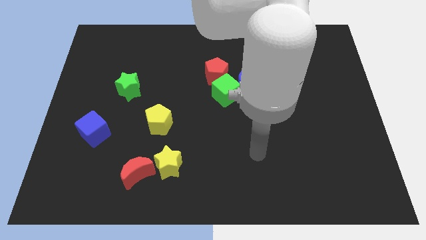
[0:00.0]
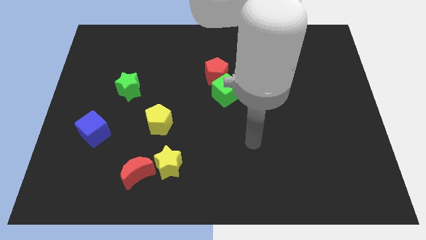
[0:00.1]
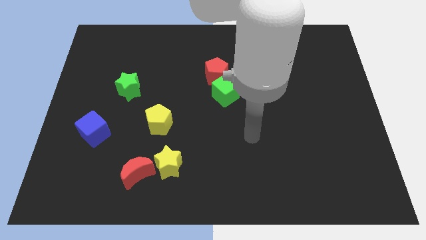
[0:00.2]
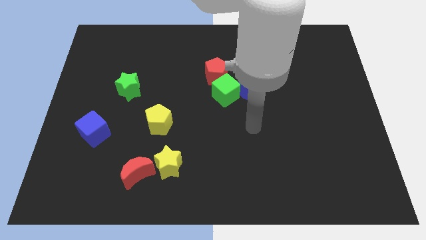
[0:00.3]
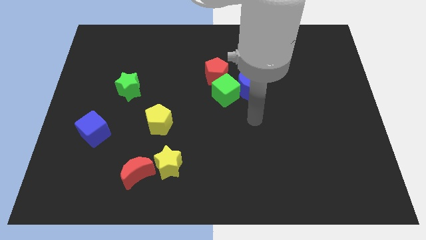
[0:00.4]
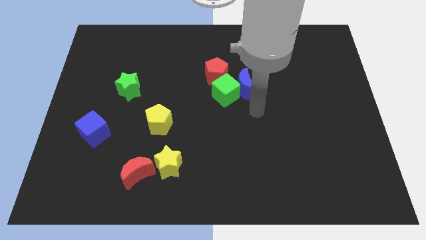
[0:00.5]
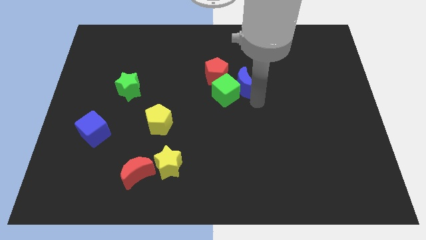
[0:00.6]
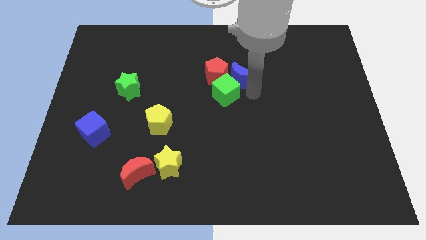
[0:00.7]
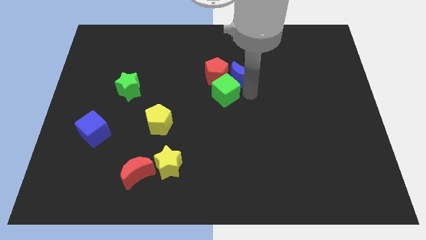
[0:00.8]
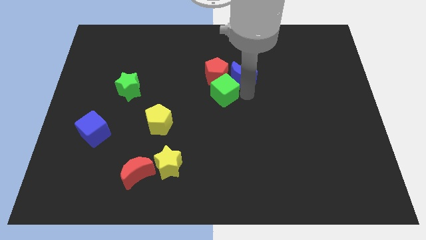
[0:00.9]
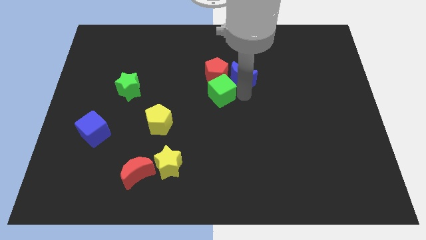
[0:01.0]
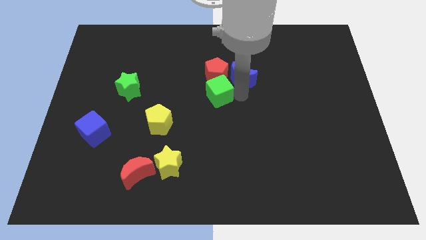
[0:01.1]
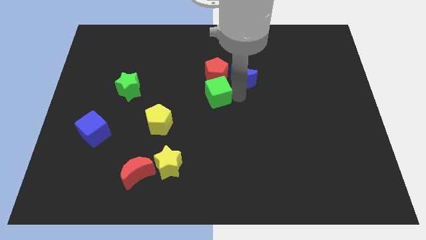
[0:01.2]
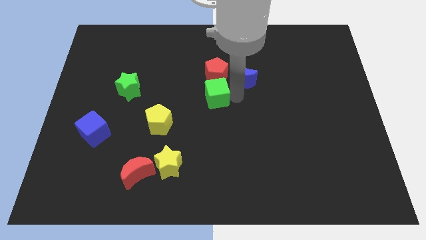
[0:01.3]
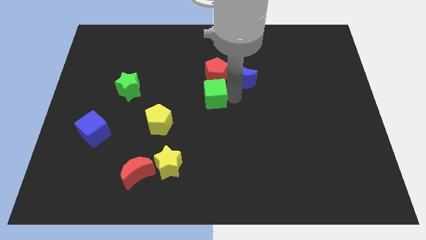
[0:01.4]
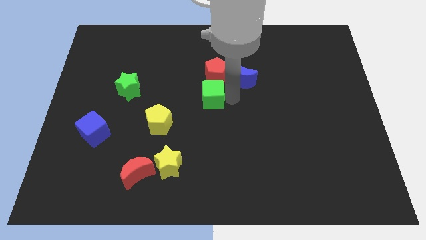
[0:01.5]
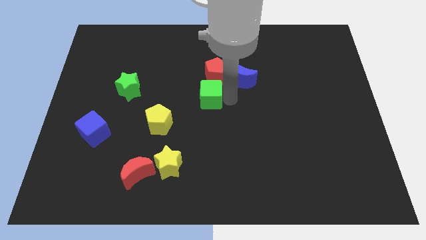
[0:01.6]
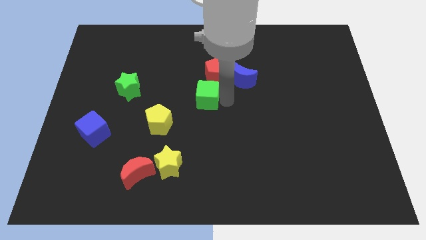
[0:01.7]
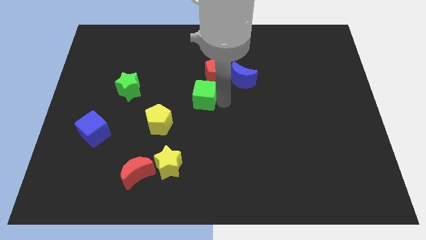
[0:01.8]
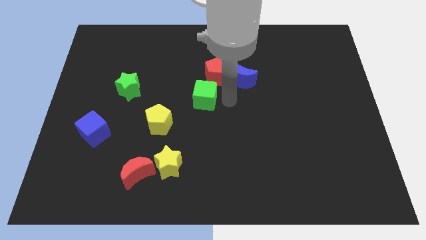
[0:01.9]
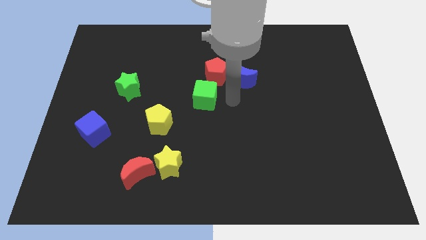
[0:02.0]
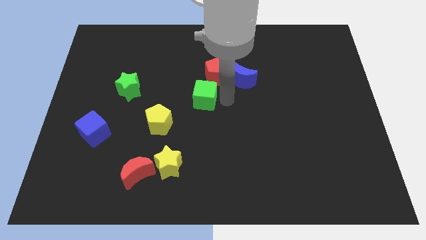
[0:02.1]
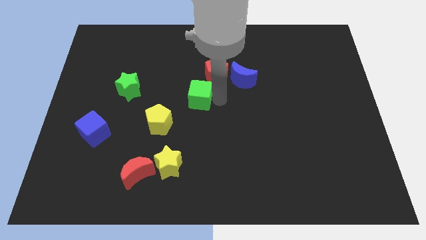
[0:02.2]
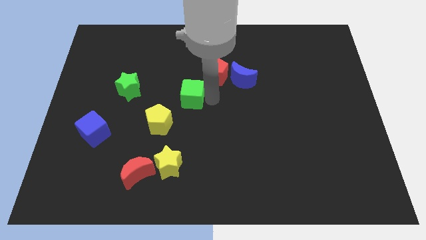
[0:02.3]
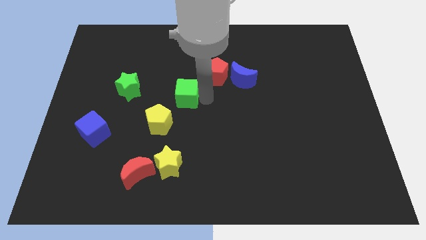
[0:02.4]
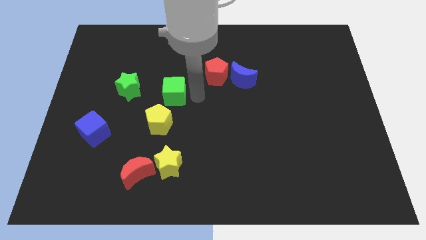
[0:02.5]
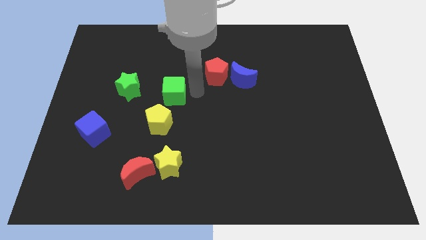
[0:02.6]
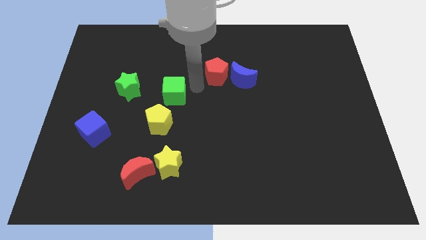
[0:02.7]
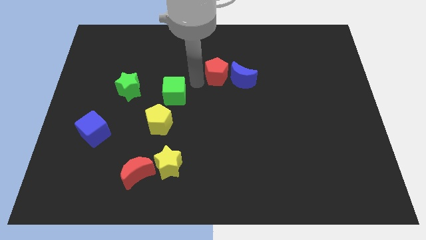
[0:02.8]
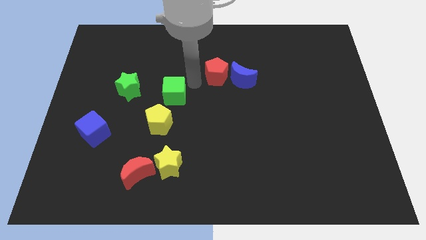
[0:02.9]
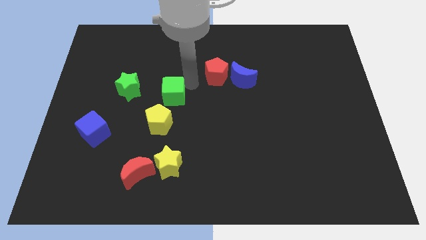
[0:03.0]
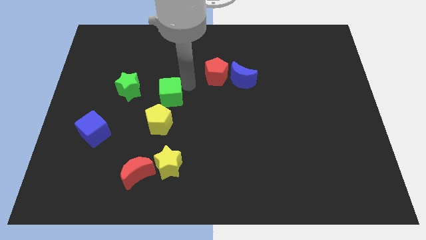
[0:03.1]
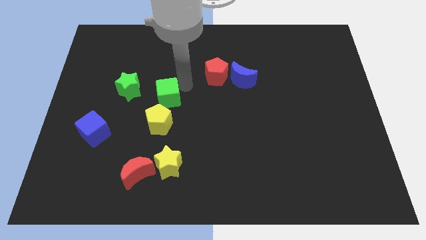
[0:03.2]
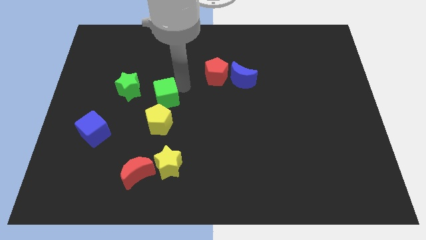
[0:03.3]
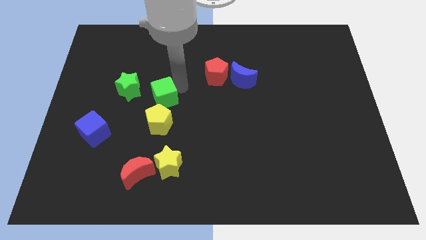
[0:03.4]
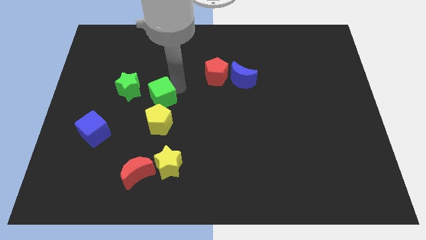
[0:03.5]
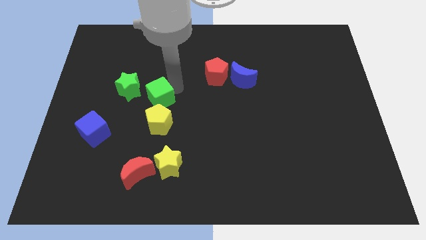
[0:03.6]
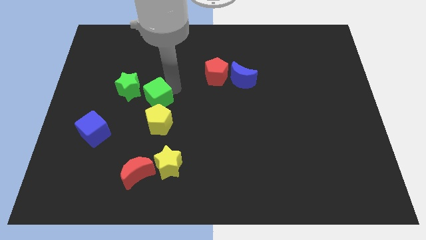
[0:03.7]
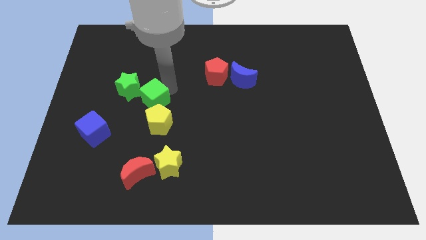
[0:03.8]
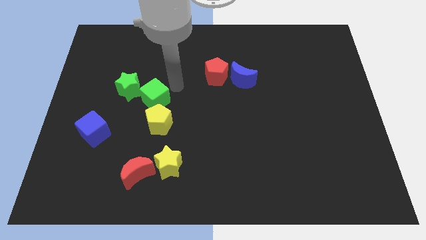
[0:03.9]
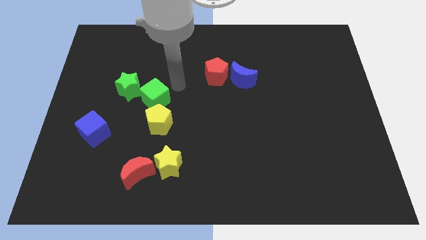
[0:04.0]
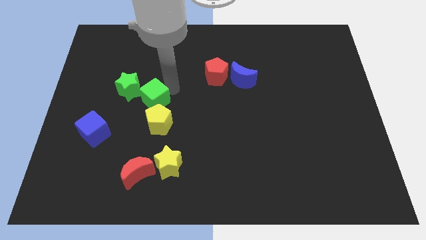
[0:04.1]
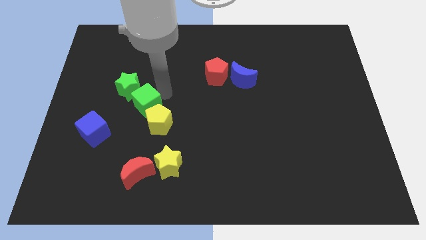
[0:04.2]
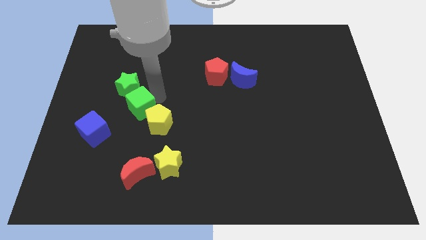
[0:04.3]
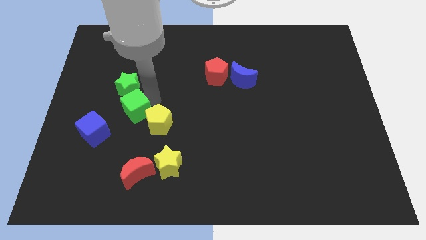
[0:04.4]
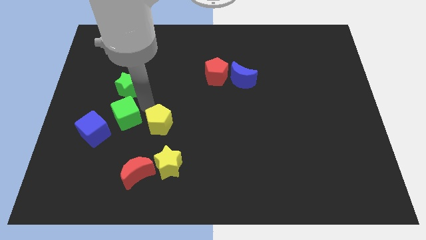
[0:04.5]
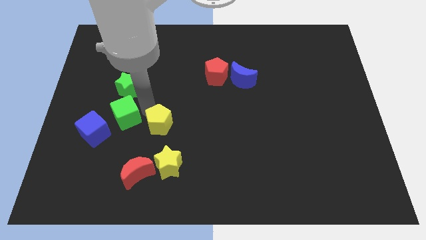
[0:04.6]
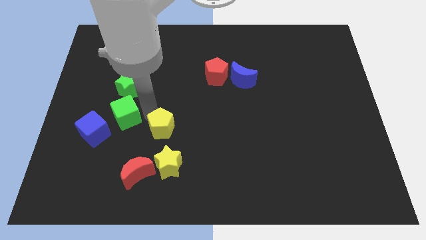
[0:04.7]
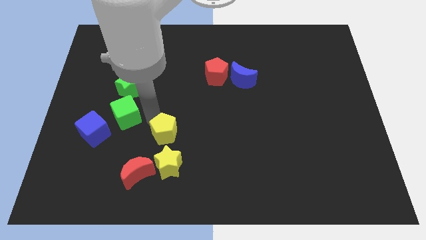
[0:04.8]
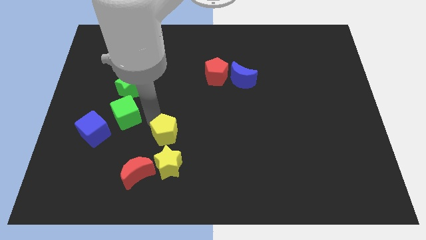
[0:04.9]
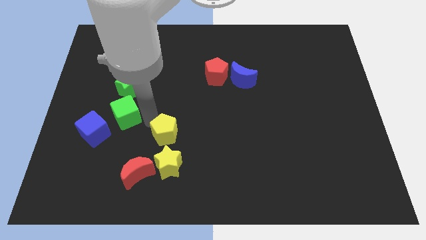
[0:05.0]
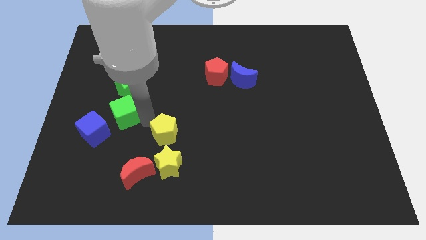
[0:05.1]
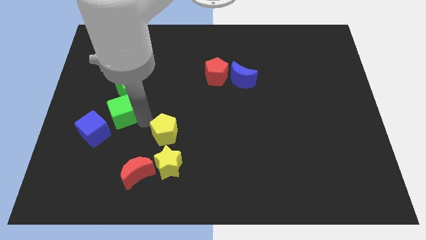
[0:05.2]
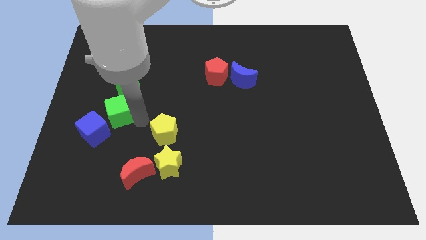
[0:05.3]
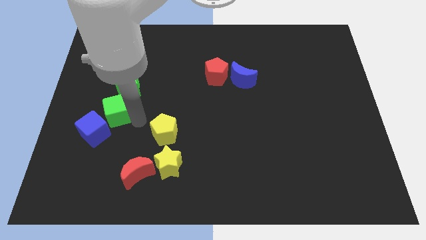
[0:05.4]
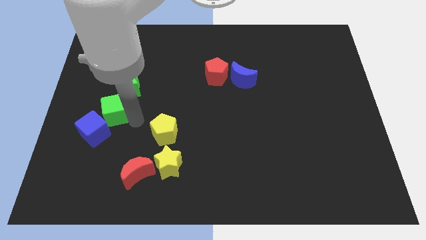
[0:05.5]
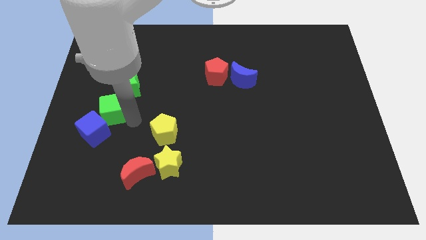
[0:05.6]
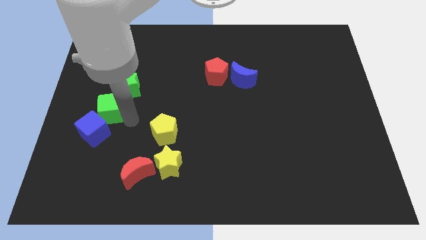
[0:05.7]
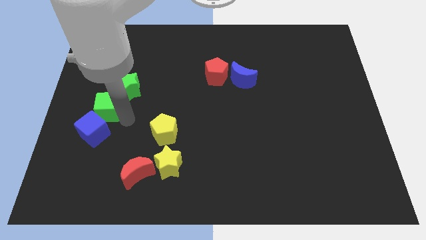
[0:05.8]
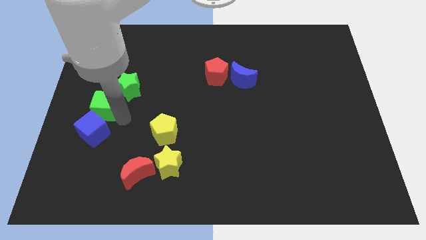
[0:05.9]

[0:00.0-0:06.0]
push the green cube to the left side

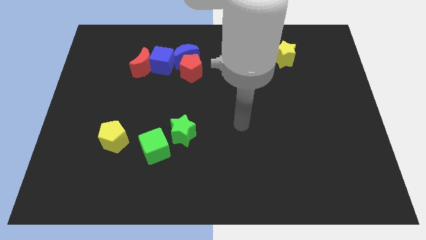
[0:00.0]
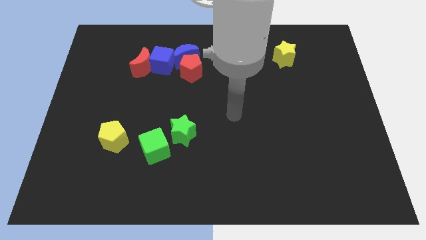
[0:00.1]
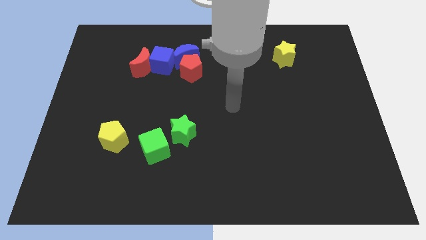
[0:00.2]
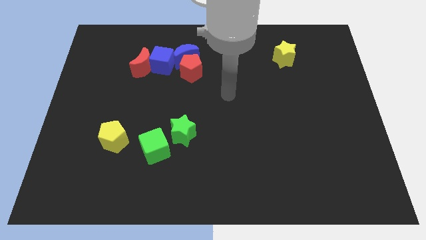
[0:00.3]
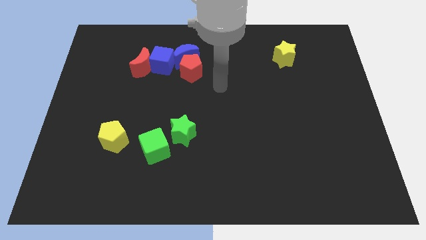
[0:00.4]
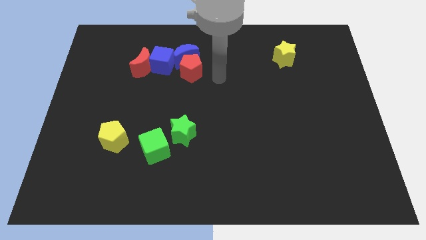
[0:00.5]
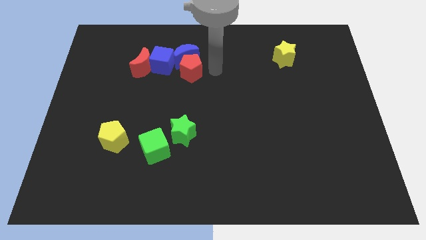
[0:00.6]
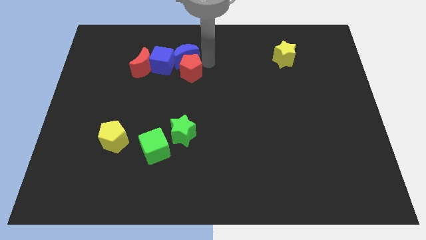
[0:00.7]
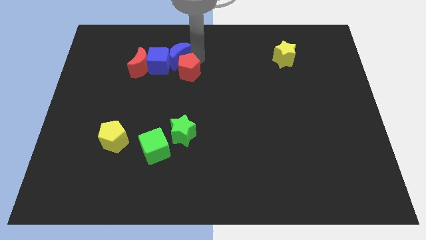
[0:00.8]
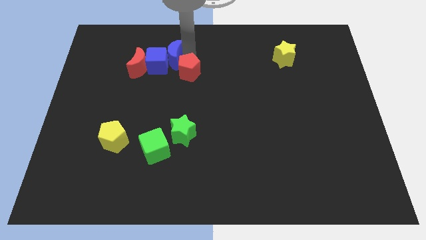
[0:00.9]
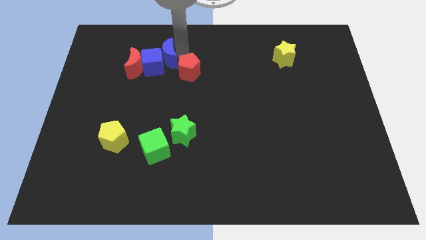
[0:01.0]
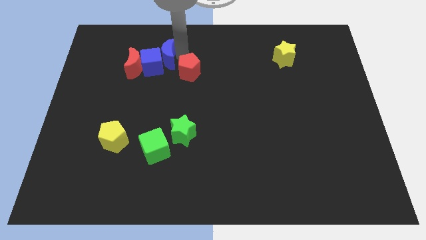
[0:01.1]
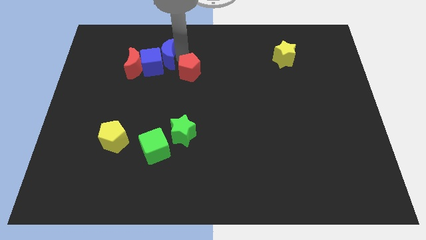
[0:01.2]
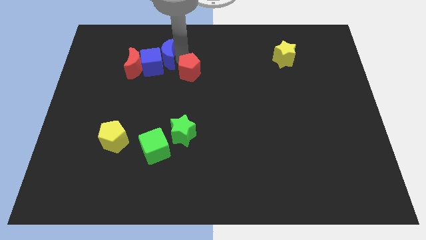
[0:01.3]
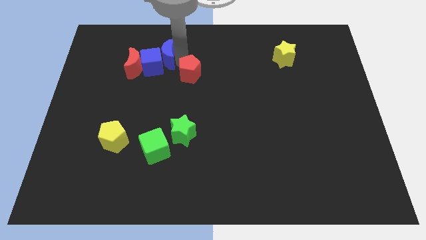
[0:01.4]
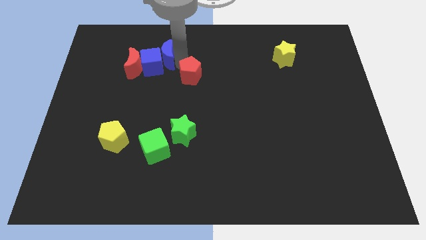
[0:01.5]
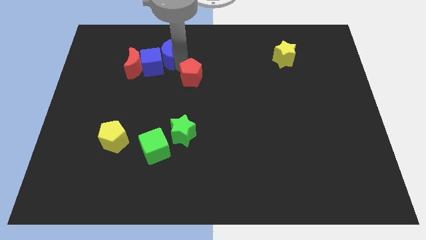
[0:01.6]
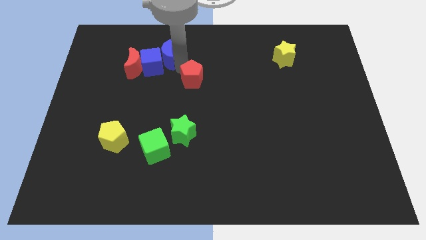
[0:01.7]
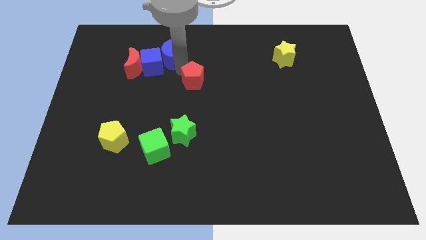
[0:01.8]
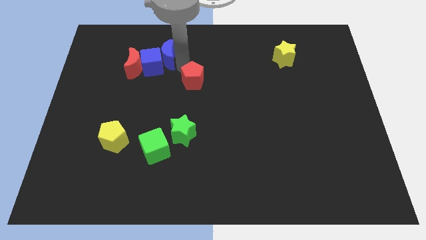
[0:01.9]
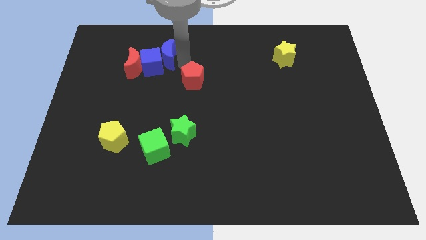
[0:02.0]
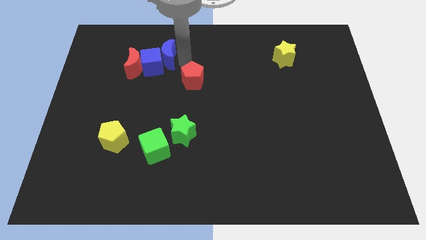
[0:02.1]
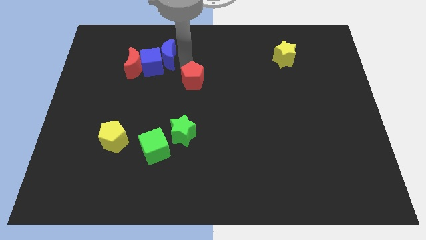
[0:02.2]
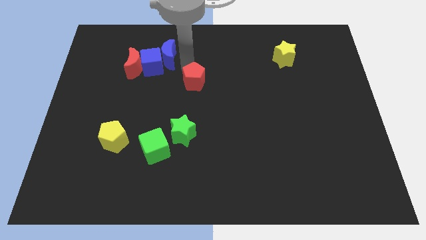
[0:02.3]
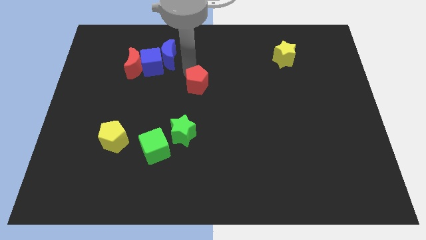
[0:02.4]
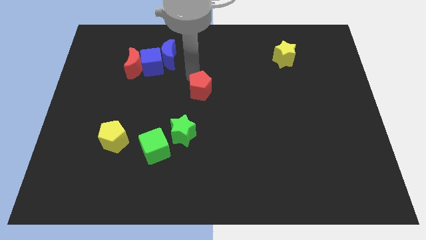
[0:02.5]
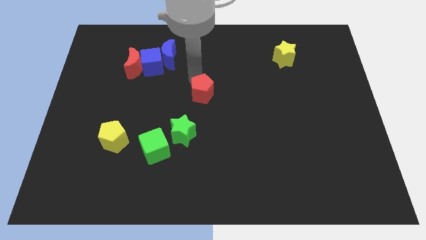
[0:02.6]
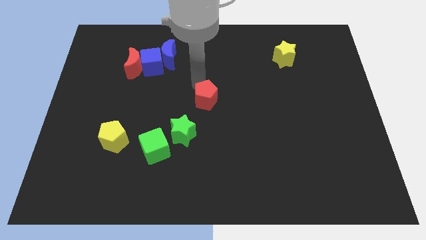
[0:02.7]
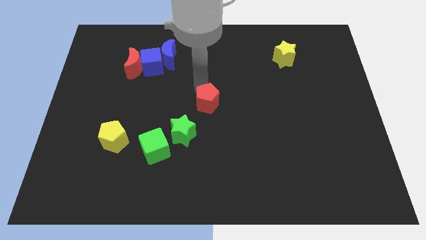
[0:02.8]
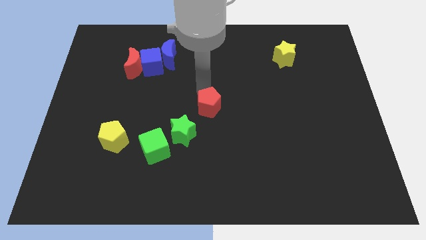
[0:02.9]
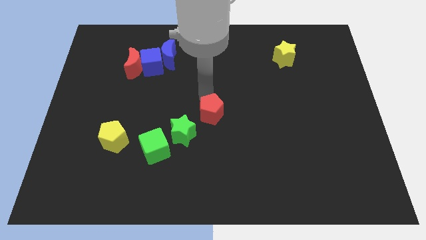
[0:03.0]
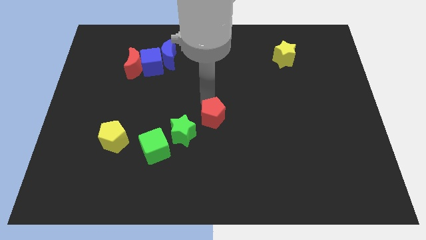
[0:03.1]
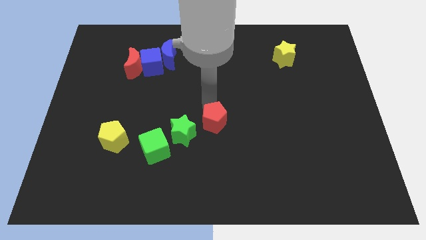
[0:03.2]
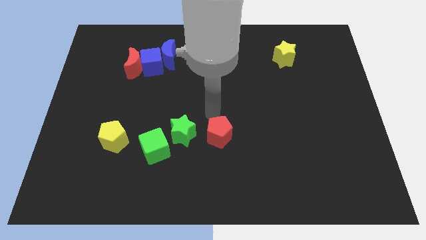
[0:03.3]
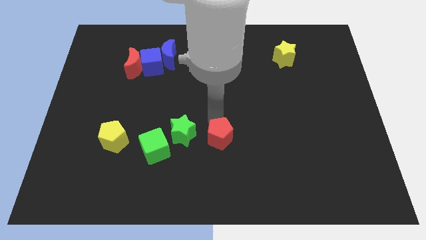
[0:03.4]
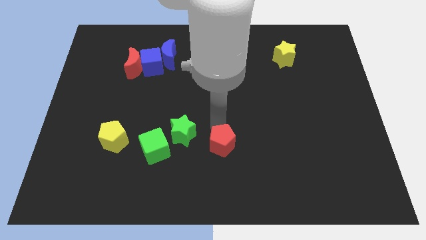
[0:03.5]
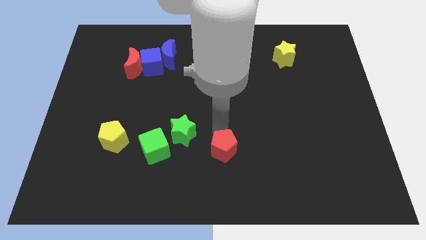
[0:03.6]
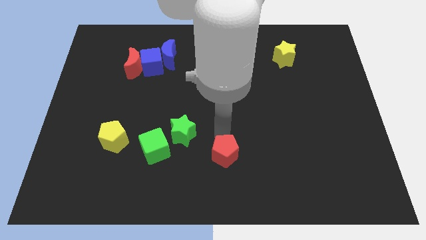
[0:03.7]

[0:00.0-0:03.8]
slide the red pentagon to the bottom side
